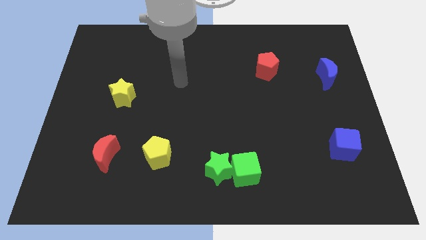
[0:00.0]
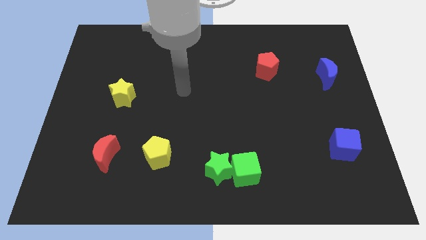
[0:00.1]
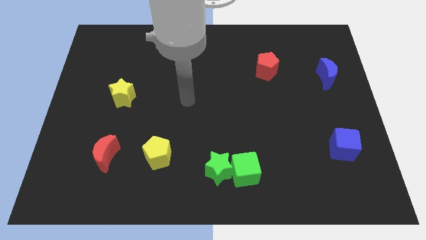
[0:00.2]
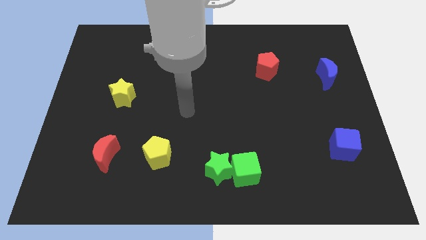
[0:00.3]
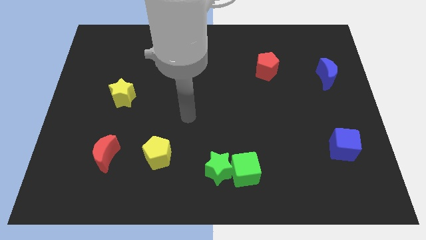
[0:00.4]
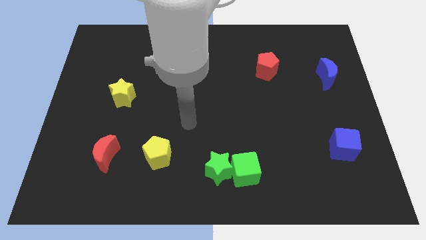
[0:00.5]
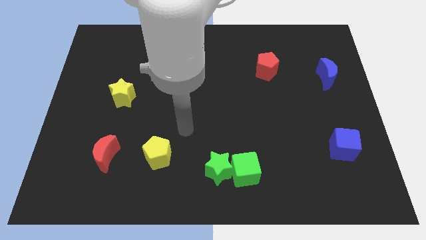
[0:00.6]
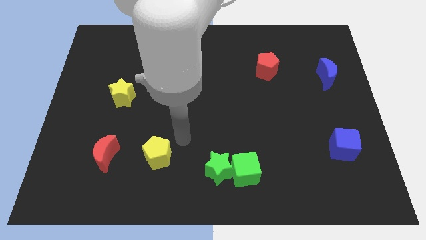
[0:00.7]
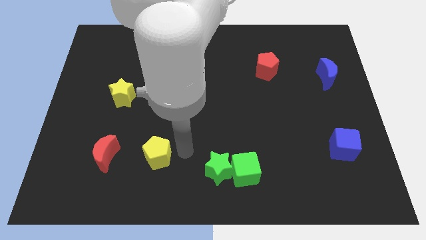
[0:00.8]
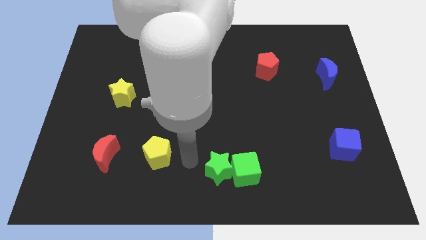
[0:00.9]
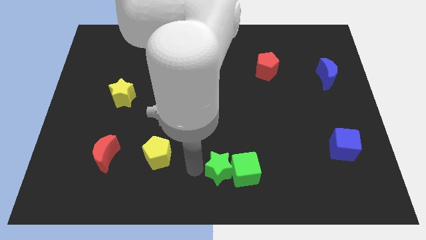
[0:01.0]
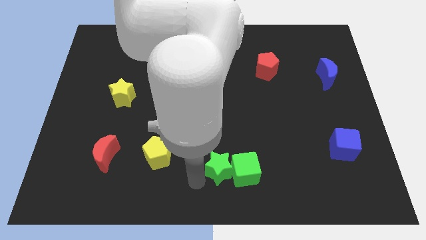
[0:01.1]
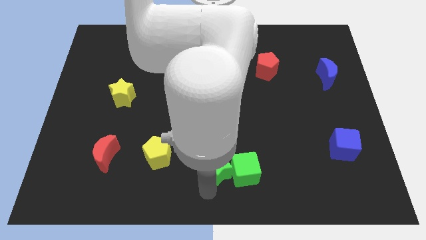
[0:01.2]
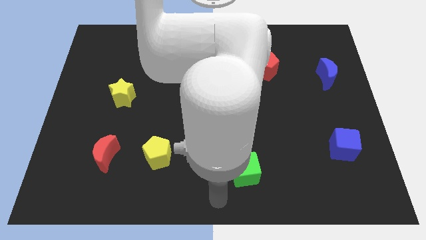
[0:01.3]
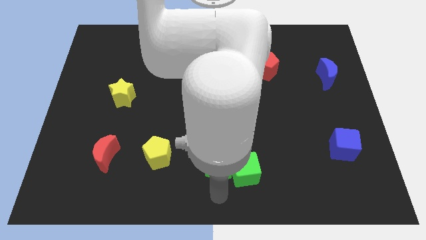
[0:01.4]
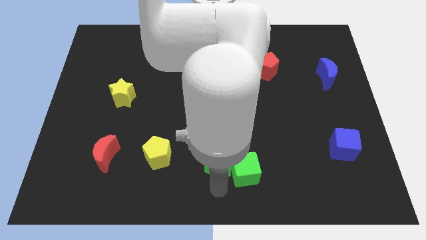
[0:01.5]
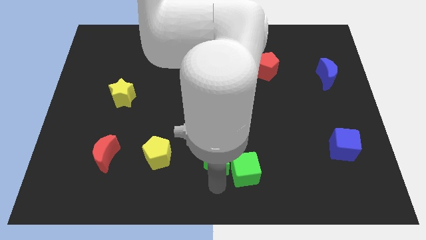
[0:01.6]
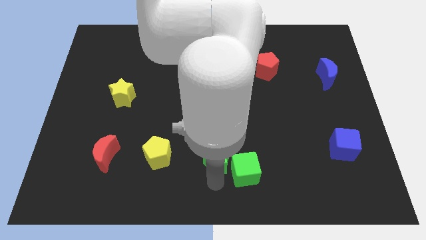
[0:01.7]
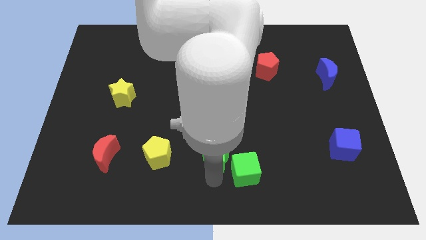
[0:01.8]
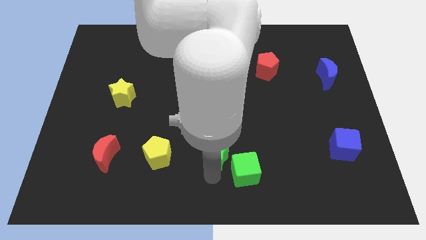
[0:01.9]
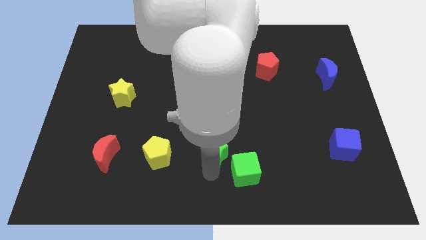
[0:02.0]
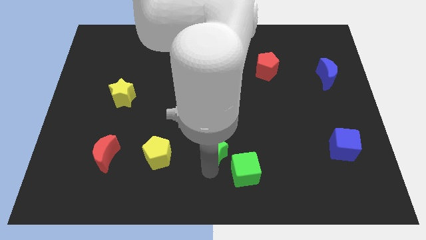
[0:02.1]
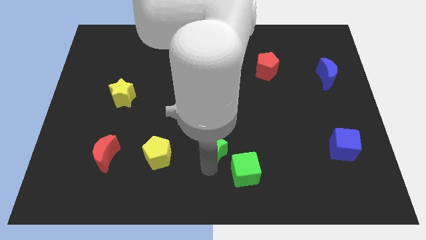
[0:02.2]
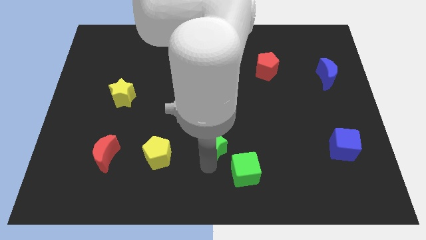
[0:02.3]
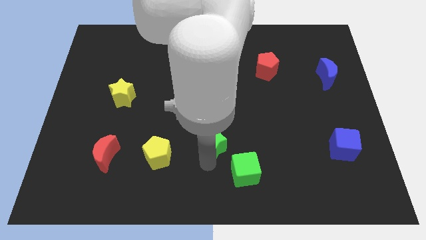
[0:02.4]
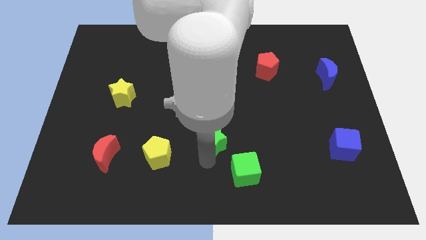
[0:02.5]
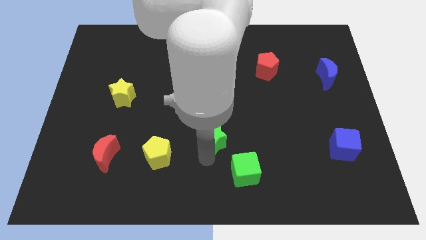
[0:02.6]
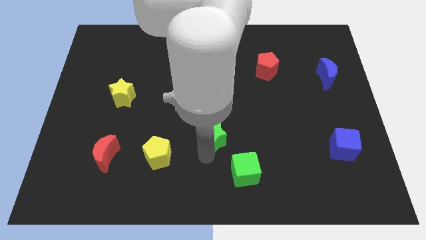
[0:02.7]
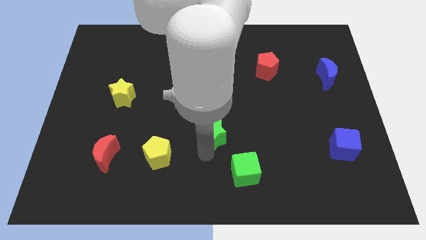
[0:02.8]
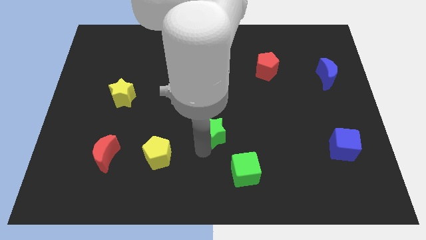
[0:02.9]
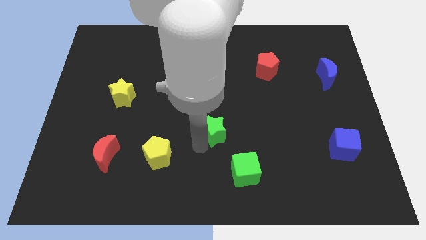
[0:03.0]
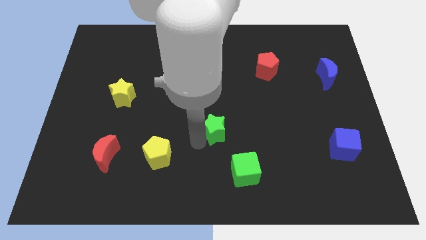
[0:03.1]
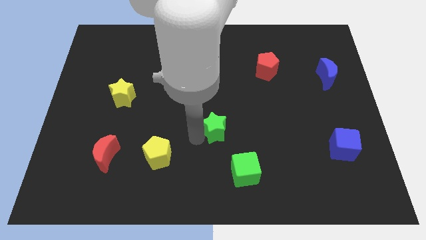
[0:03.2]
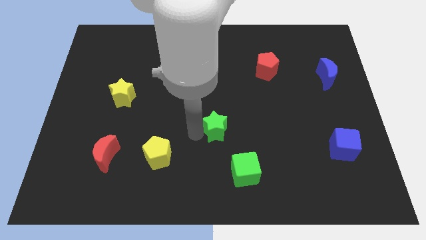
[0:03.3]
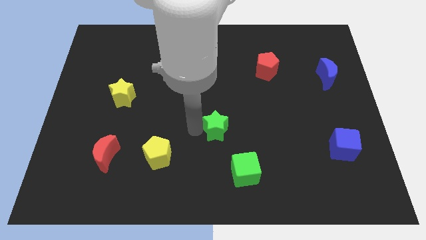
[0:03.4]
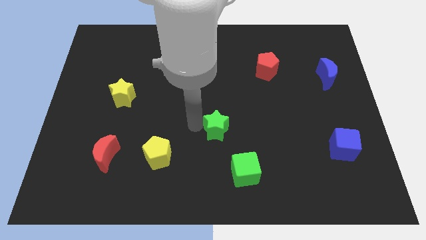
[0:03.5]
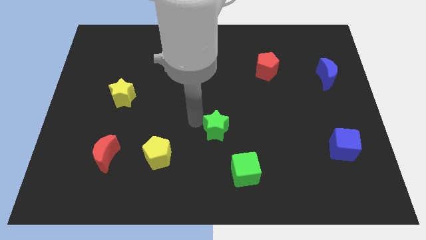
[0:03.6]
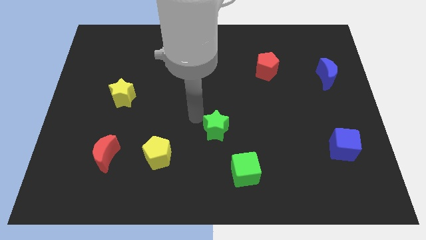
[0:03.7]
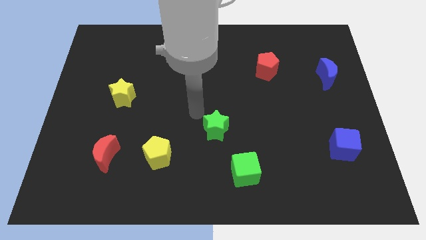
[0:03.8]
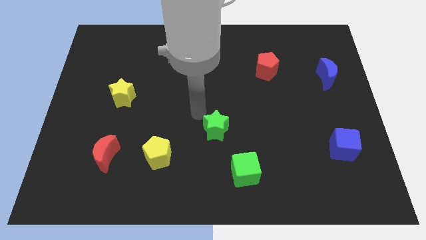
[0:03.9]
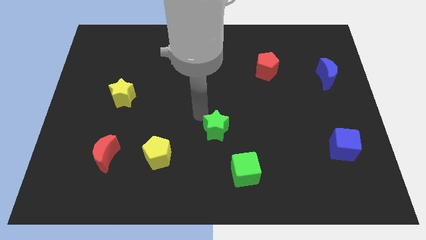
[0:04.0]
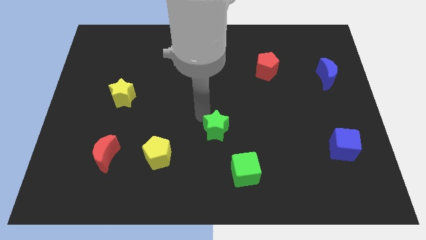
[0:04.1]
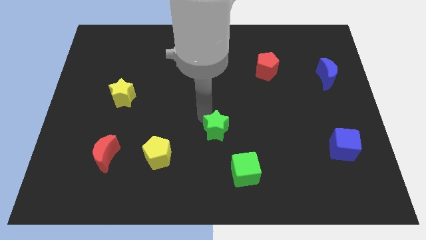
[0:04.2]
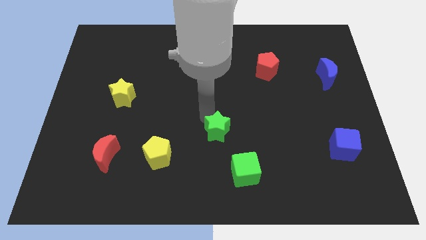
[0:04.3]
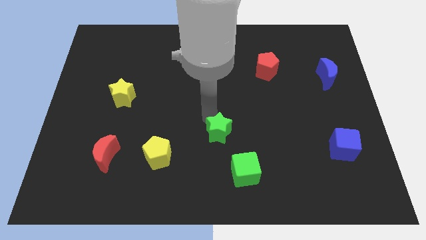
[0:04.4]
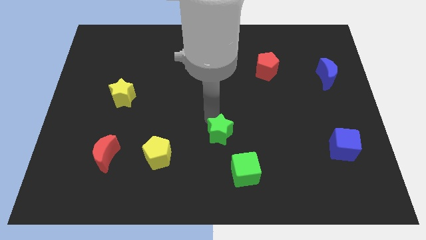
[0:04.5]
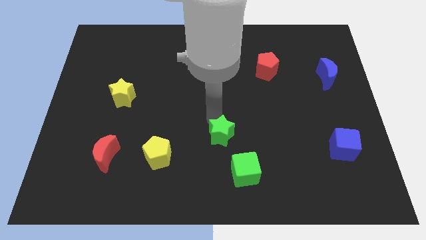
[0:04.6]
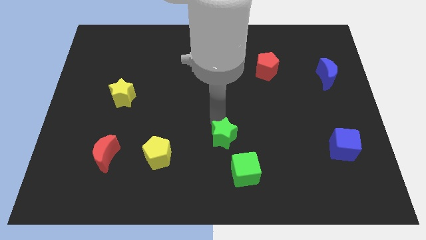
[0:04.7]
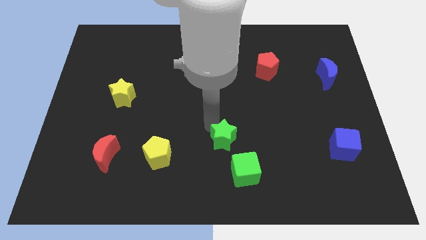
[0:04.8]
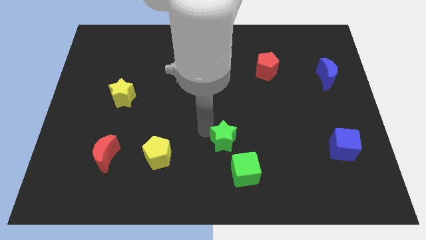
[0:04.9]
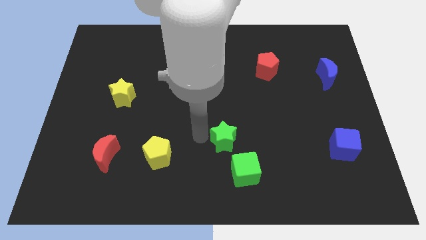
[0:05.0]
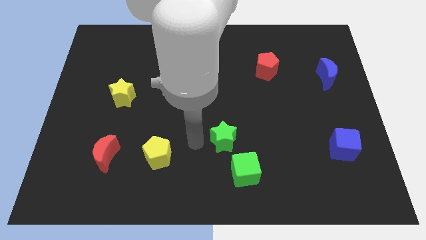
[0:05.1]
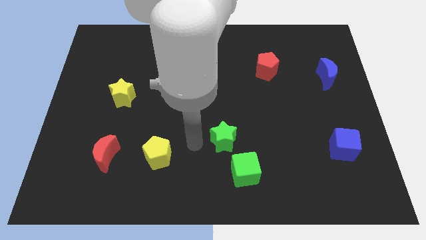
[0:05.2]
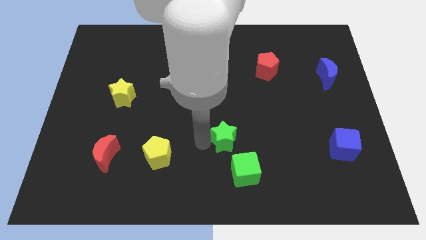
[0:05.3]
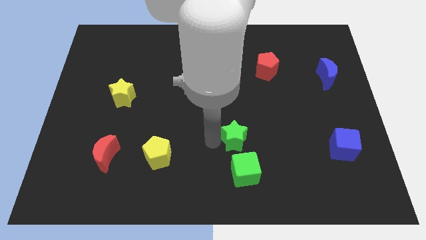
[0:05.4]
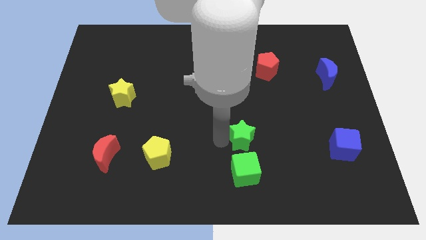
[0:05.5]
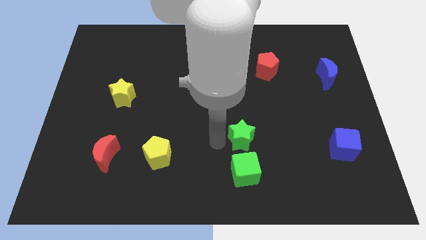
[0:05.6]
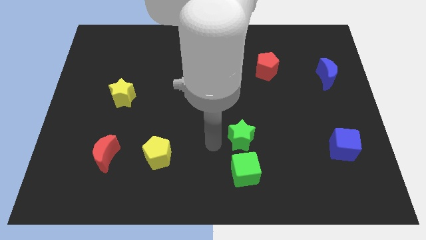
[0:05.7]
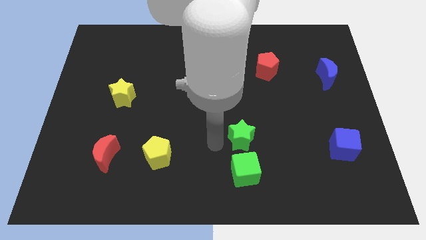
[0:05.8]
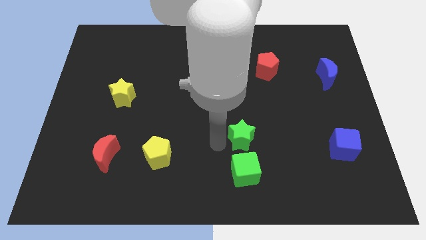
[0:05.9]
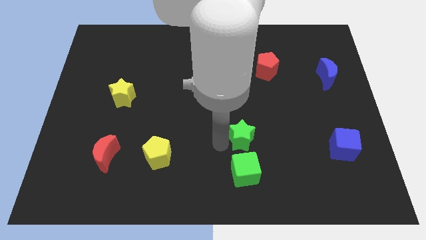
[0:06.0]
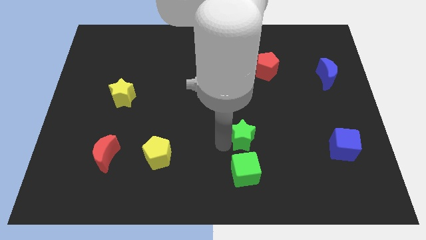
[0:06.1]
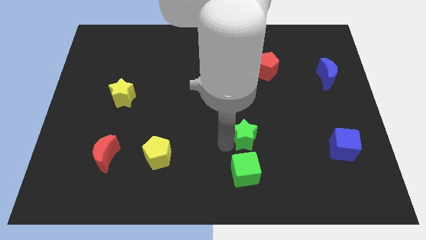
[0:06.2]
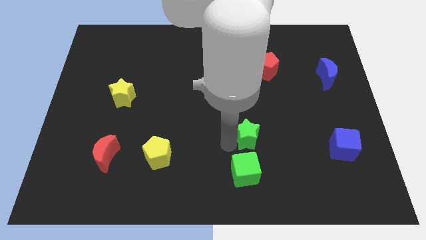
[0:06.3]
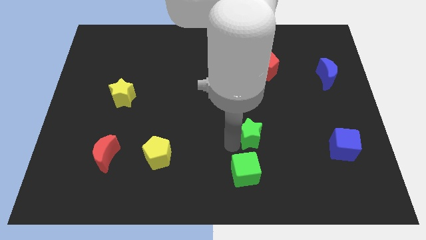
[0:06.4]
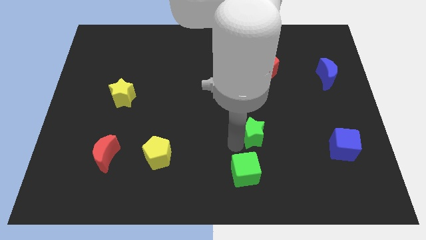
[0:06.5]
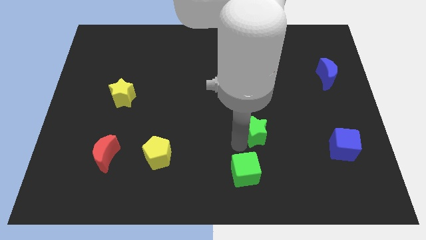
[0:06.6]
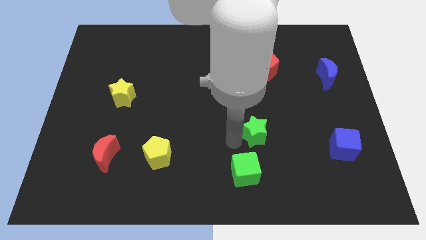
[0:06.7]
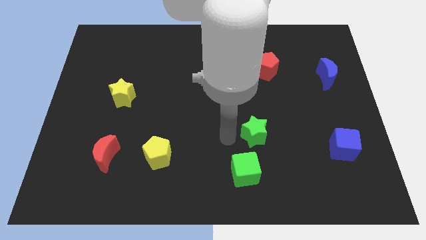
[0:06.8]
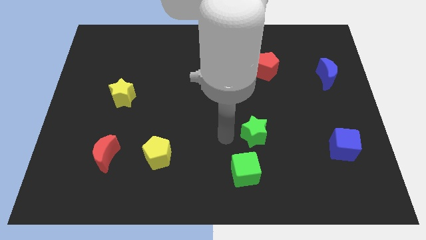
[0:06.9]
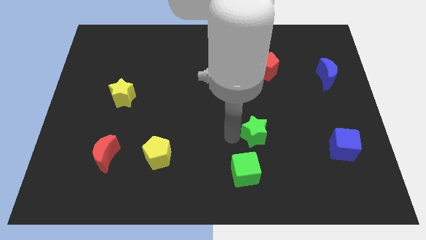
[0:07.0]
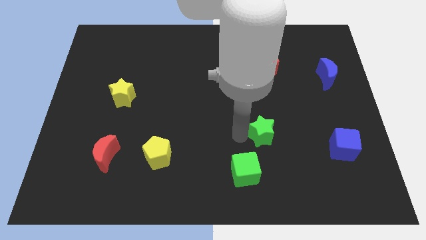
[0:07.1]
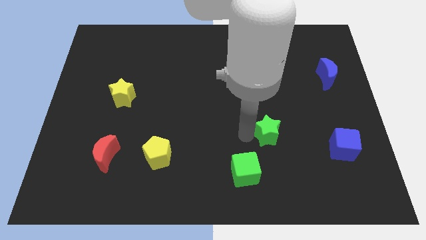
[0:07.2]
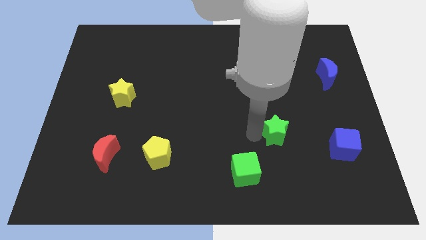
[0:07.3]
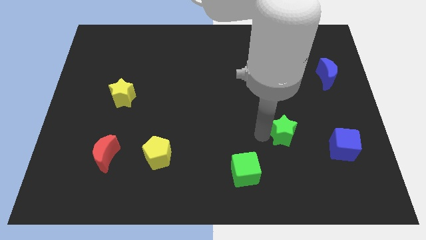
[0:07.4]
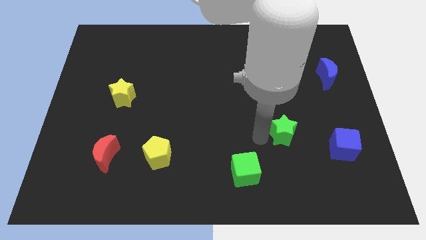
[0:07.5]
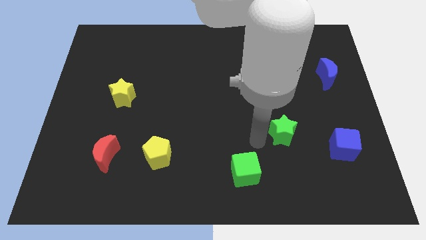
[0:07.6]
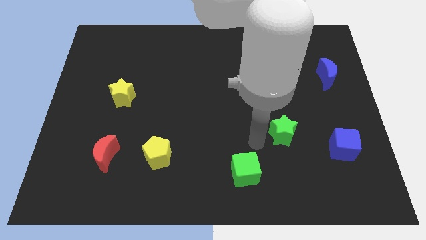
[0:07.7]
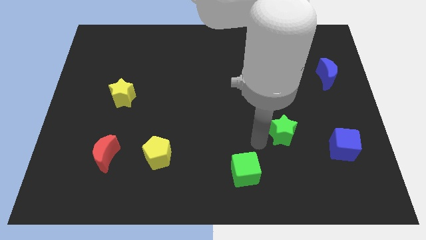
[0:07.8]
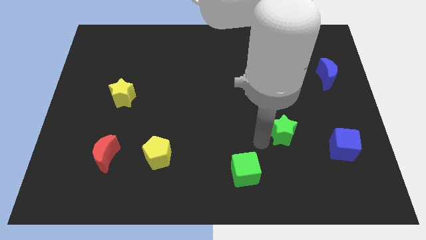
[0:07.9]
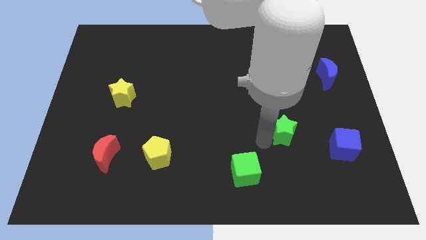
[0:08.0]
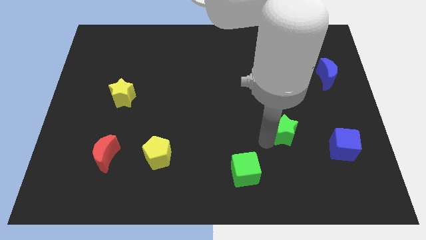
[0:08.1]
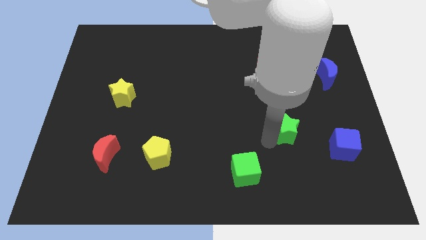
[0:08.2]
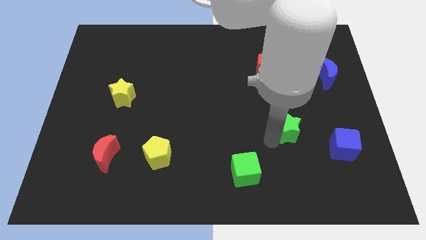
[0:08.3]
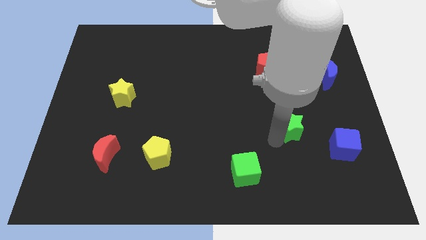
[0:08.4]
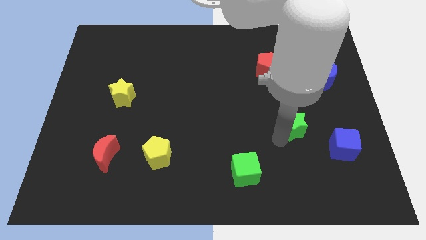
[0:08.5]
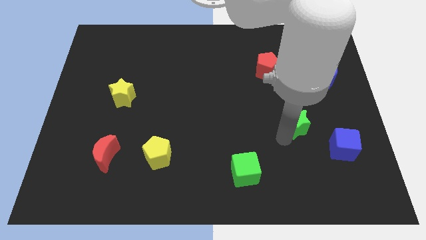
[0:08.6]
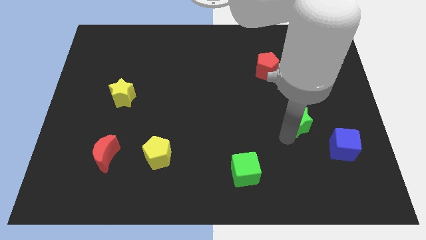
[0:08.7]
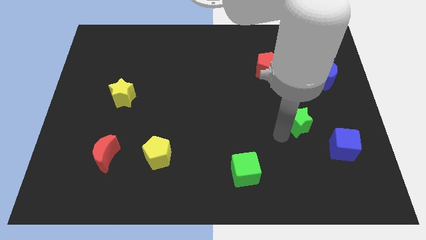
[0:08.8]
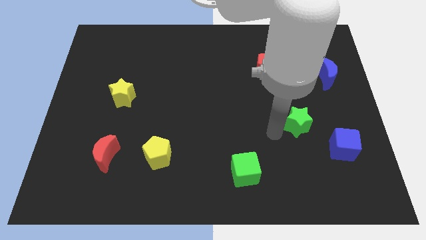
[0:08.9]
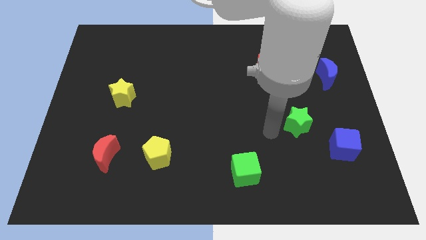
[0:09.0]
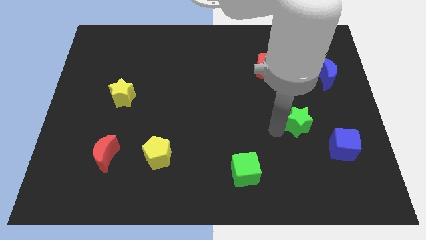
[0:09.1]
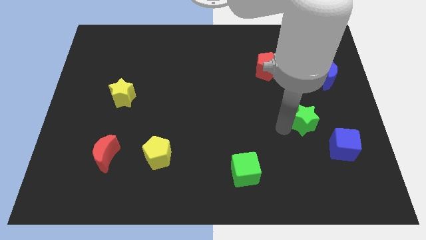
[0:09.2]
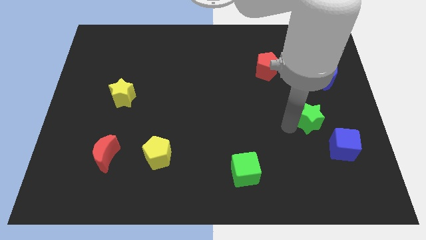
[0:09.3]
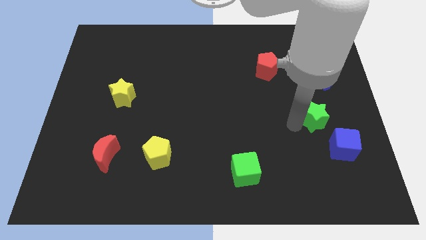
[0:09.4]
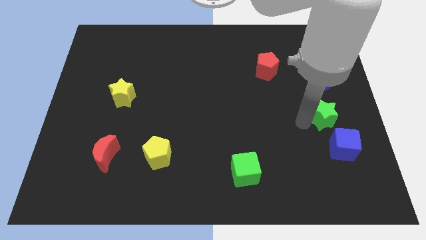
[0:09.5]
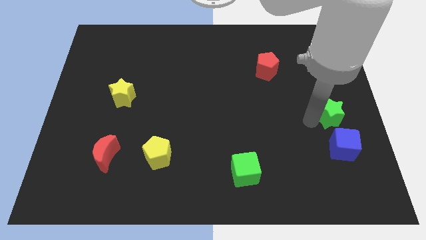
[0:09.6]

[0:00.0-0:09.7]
slide the green star to the right side of the board
